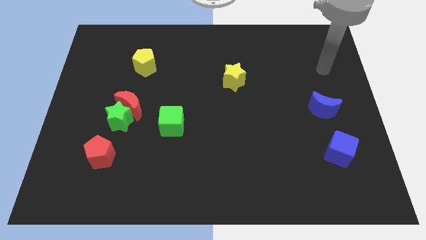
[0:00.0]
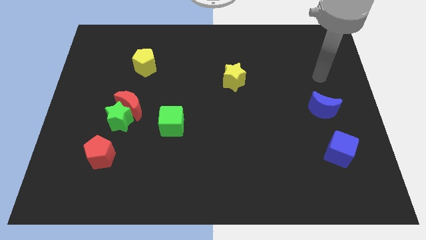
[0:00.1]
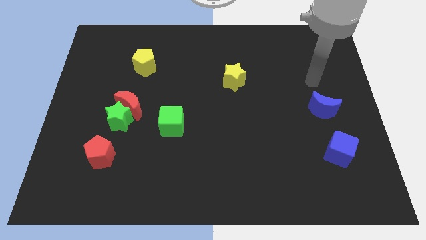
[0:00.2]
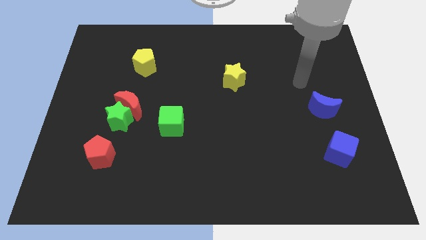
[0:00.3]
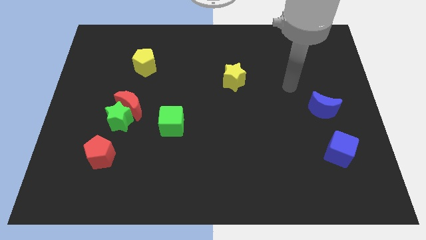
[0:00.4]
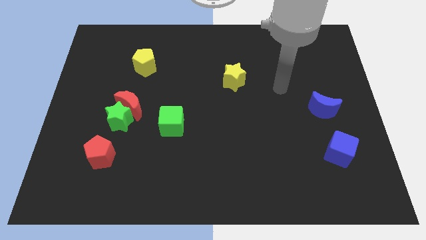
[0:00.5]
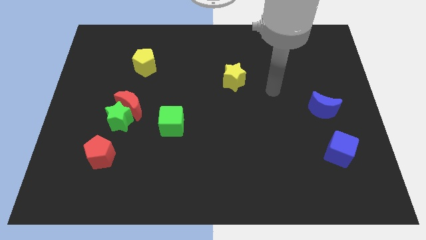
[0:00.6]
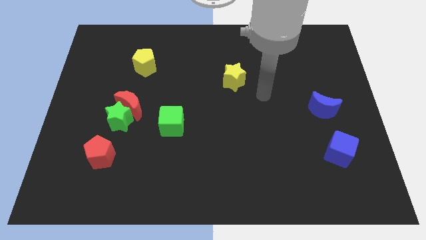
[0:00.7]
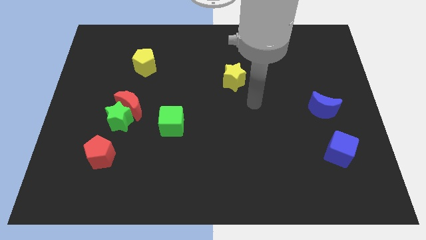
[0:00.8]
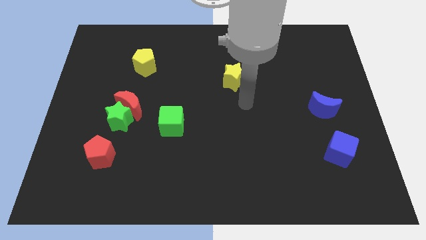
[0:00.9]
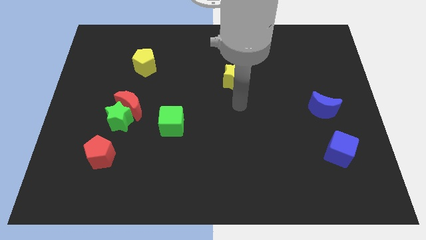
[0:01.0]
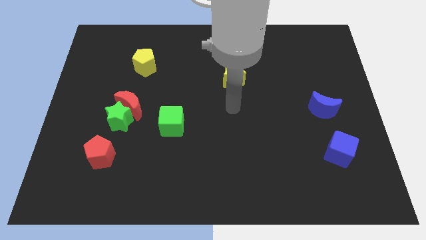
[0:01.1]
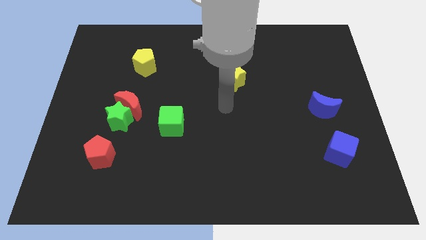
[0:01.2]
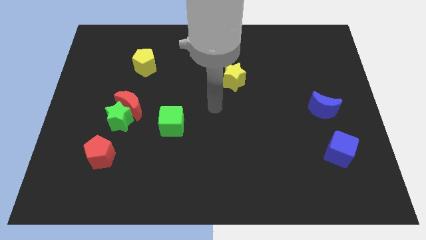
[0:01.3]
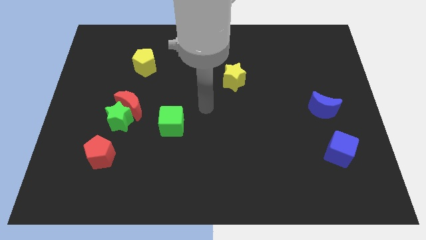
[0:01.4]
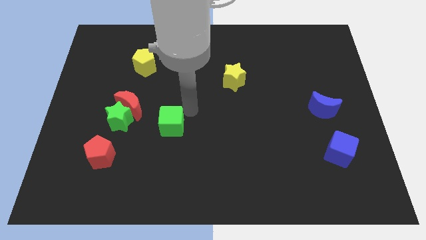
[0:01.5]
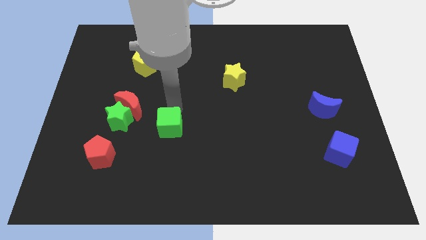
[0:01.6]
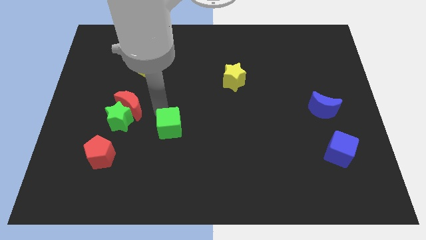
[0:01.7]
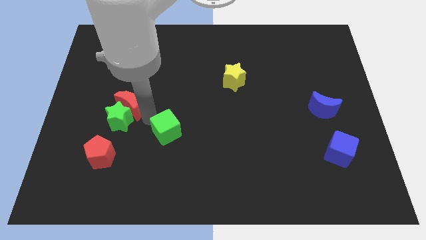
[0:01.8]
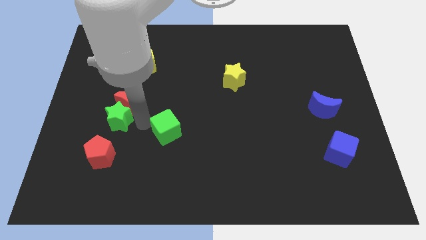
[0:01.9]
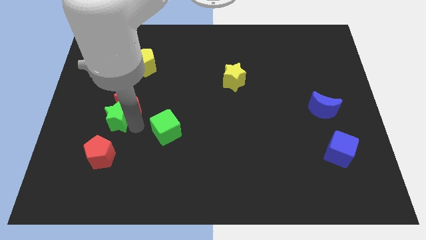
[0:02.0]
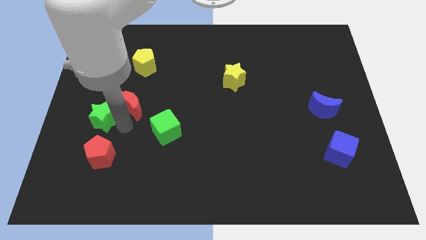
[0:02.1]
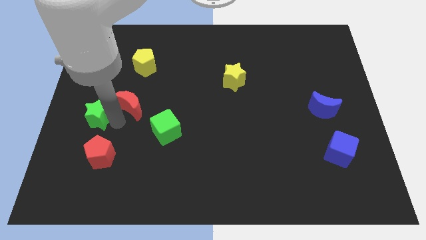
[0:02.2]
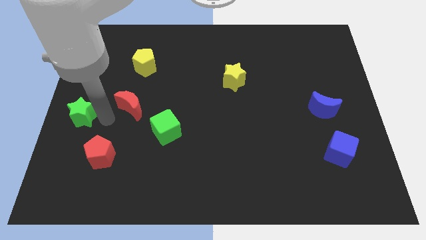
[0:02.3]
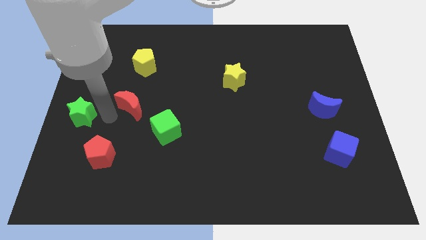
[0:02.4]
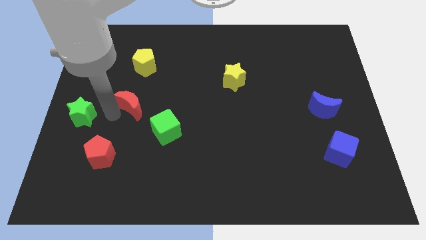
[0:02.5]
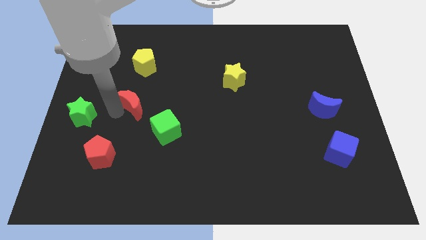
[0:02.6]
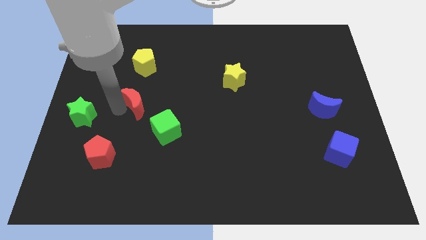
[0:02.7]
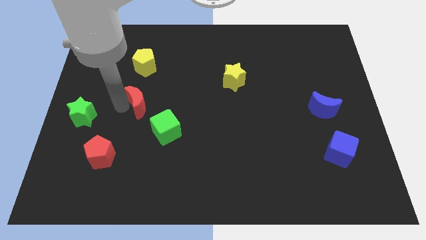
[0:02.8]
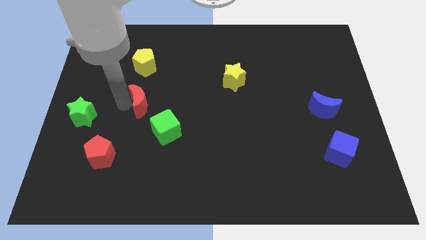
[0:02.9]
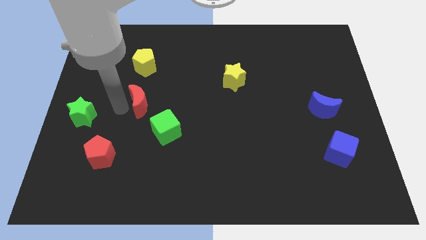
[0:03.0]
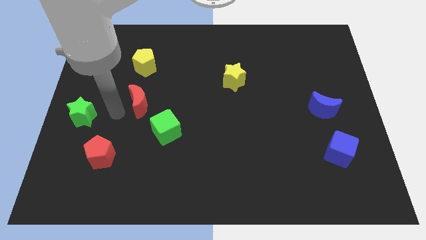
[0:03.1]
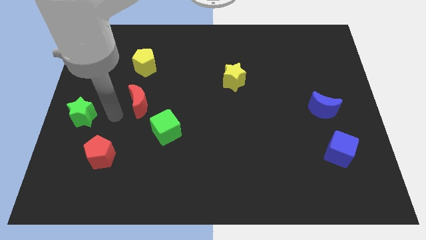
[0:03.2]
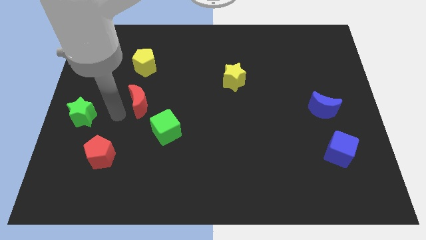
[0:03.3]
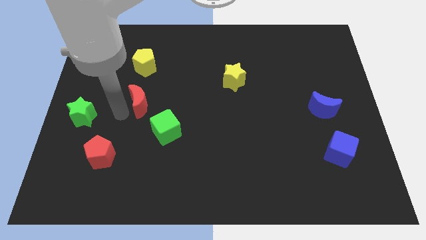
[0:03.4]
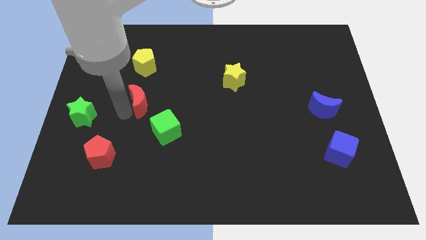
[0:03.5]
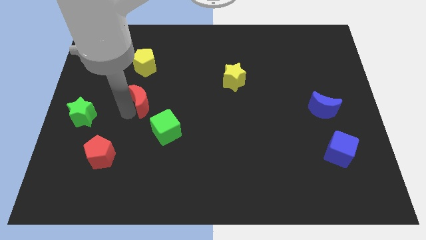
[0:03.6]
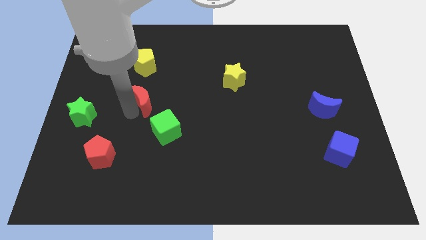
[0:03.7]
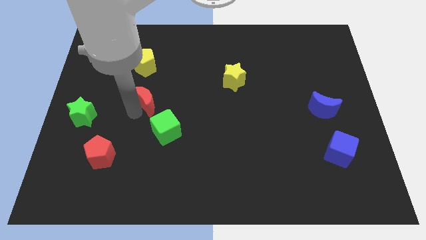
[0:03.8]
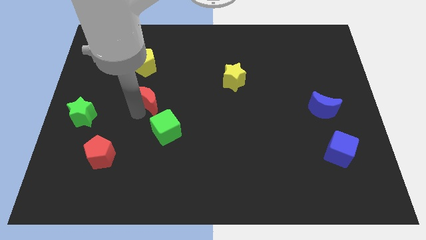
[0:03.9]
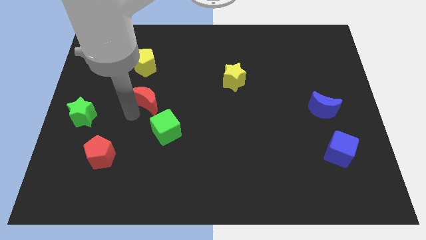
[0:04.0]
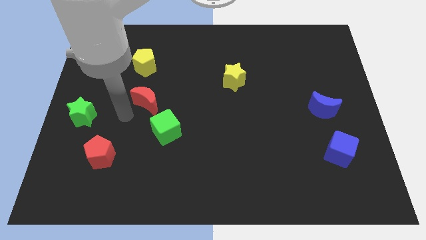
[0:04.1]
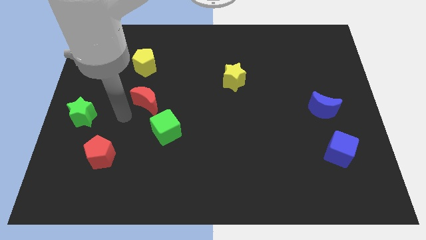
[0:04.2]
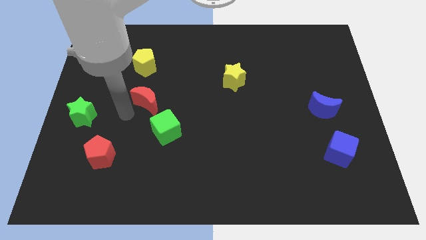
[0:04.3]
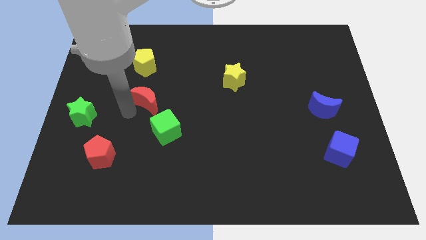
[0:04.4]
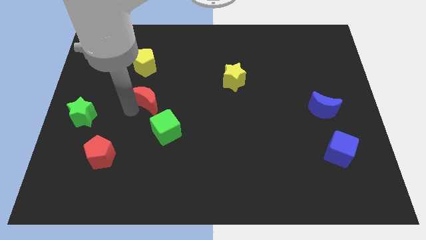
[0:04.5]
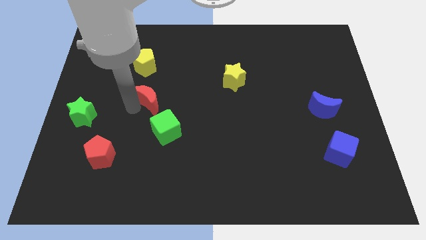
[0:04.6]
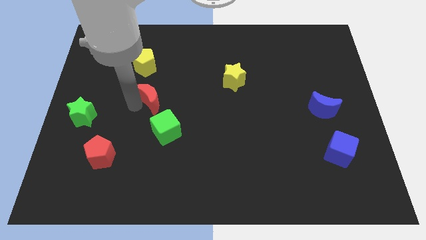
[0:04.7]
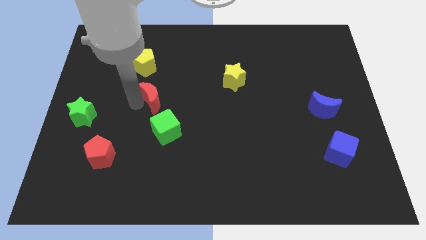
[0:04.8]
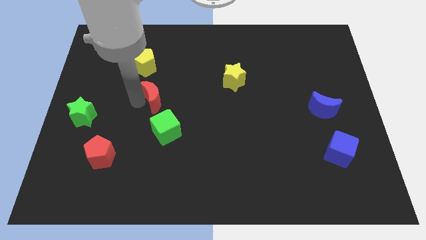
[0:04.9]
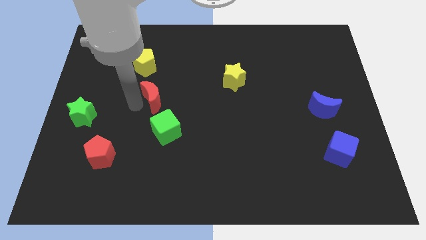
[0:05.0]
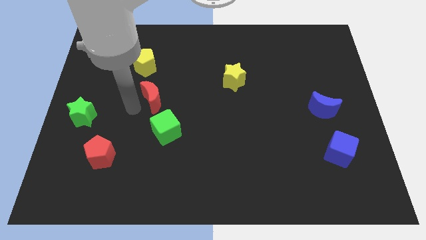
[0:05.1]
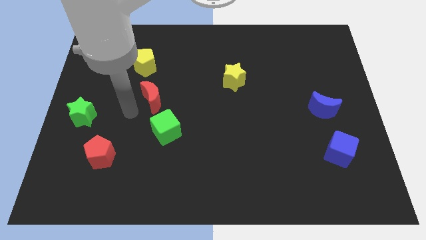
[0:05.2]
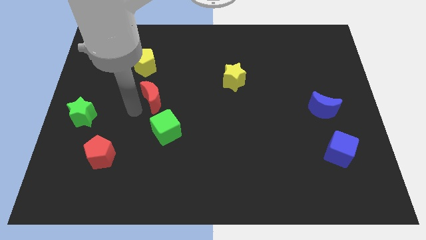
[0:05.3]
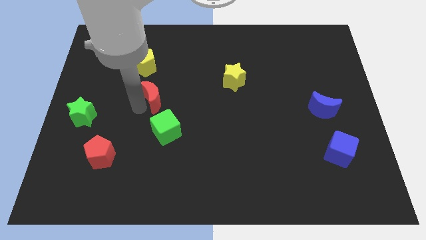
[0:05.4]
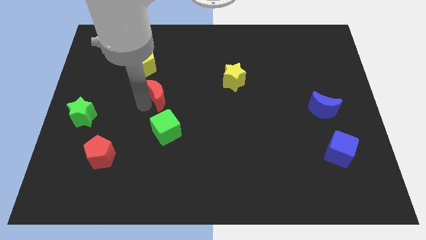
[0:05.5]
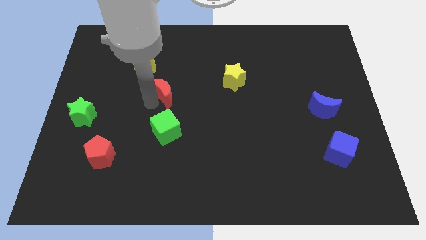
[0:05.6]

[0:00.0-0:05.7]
move the red moon to the bottom right side of the yellow pentagon

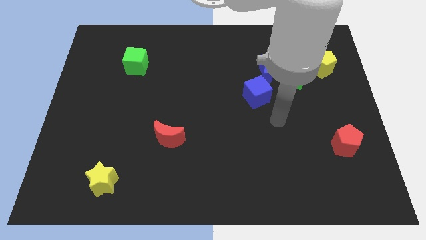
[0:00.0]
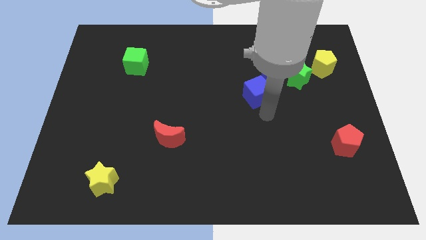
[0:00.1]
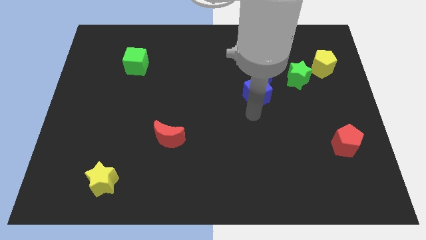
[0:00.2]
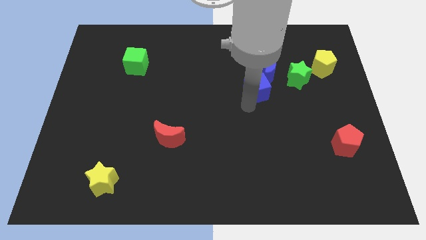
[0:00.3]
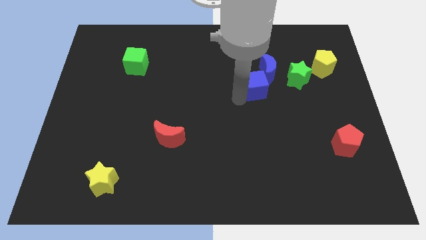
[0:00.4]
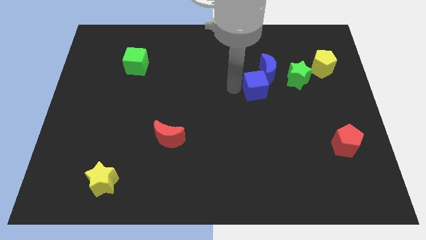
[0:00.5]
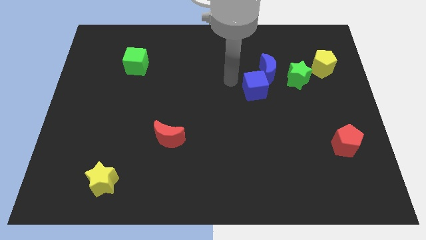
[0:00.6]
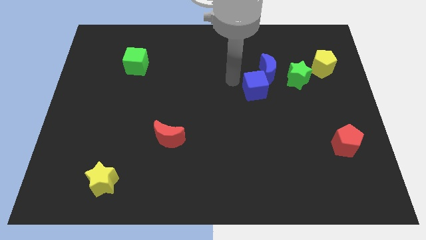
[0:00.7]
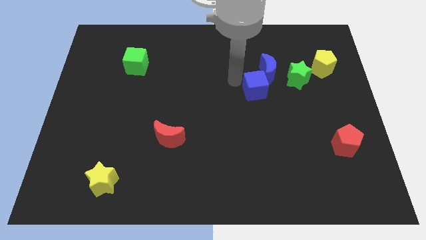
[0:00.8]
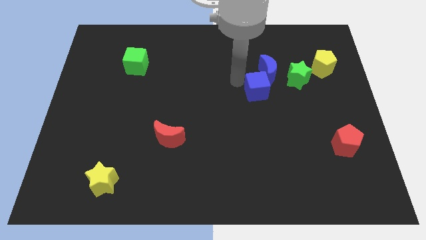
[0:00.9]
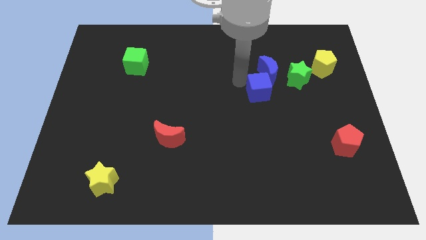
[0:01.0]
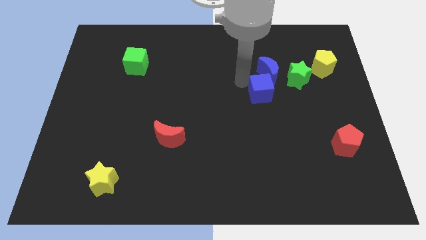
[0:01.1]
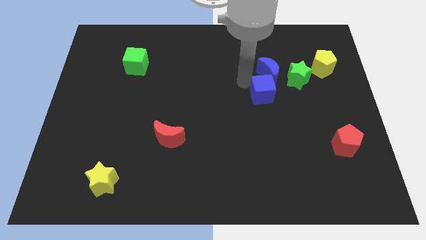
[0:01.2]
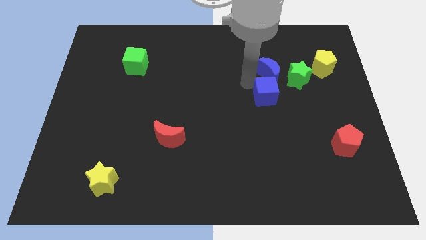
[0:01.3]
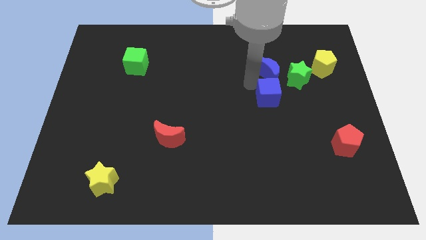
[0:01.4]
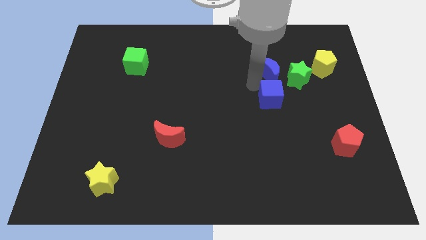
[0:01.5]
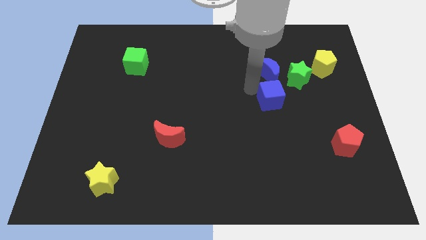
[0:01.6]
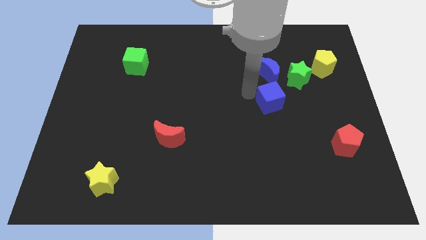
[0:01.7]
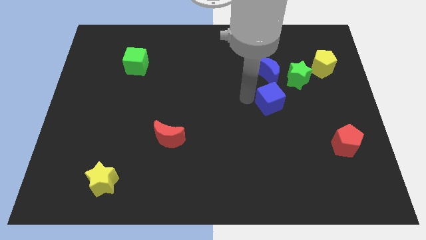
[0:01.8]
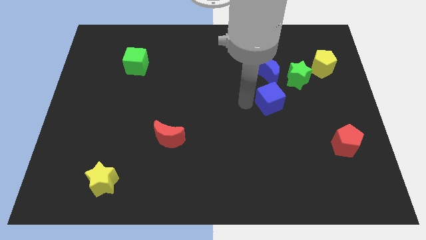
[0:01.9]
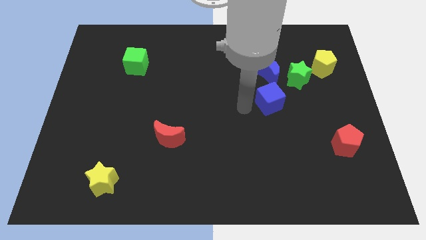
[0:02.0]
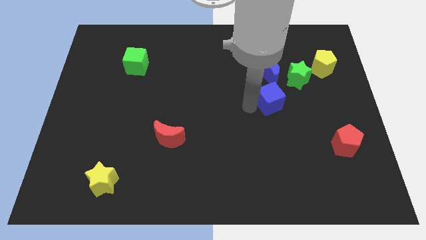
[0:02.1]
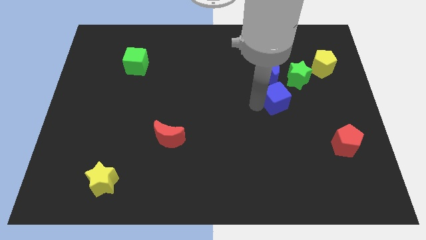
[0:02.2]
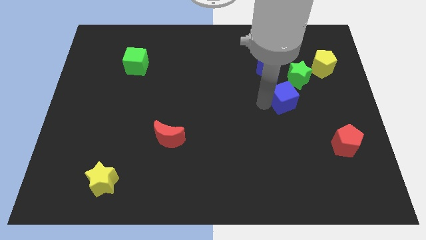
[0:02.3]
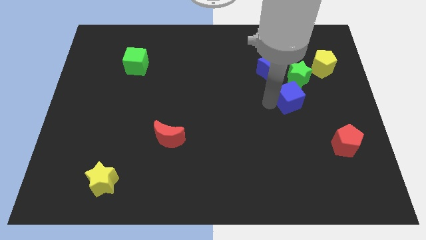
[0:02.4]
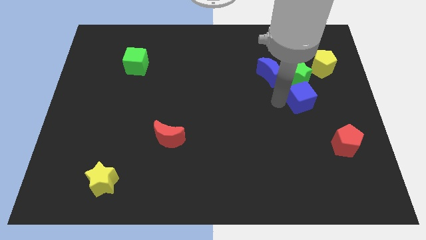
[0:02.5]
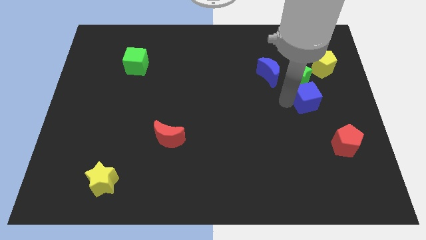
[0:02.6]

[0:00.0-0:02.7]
put the blue cube diagonally down and to the right of the green star
